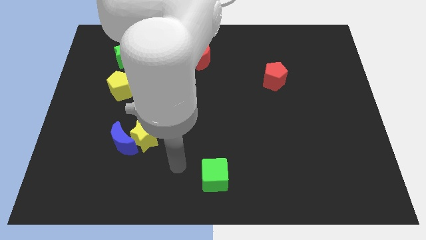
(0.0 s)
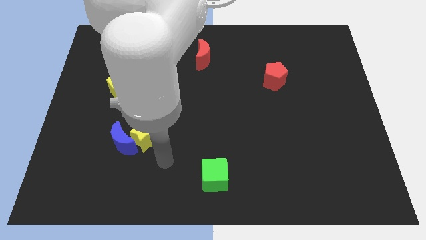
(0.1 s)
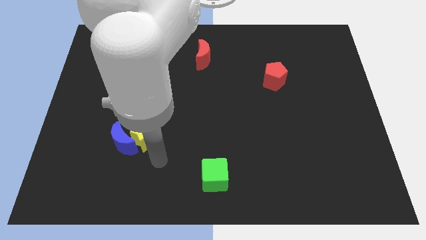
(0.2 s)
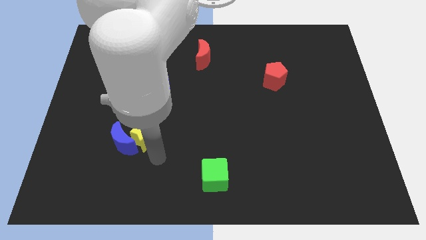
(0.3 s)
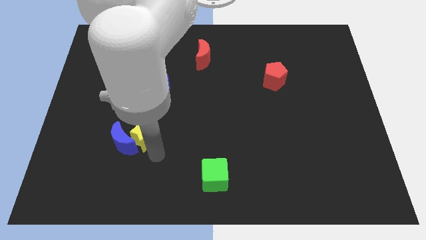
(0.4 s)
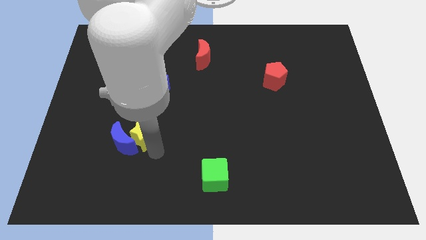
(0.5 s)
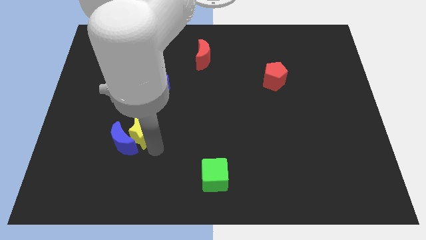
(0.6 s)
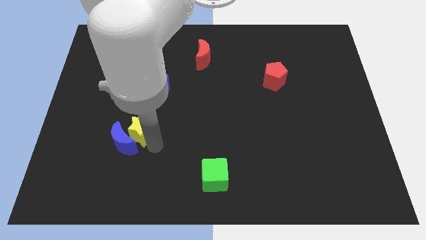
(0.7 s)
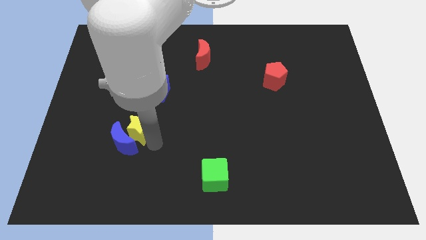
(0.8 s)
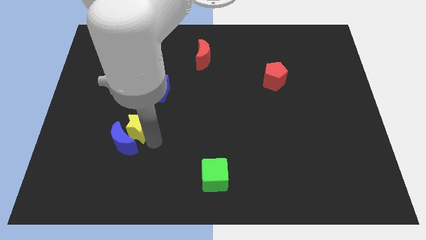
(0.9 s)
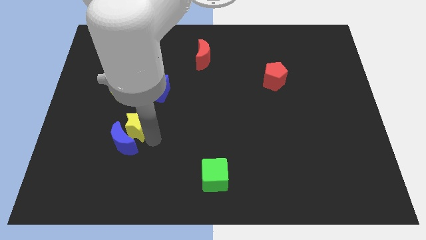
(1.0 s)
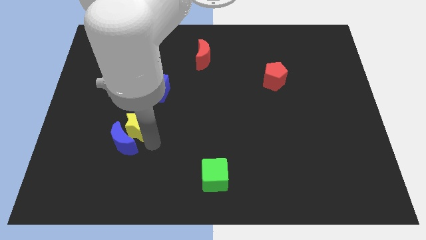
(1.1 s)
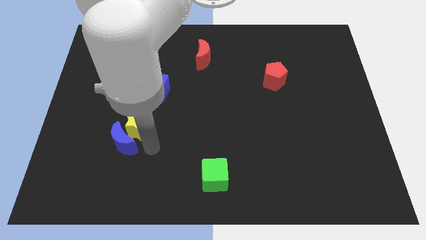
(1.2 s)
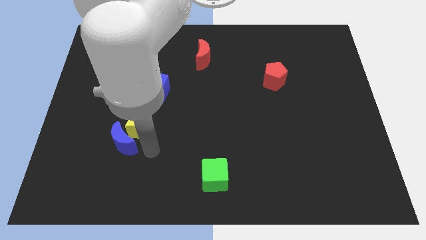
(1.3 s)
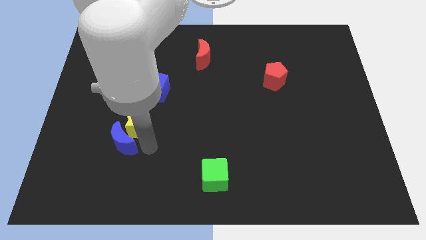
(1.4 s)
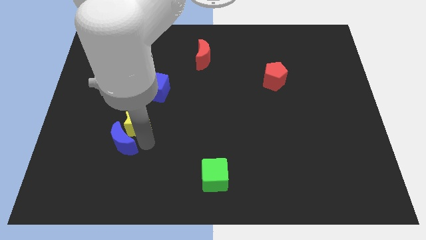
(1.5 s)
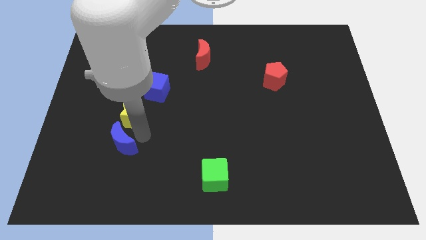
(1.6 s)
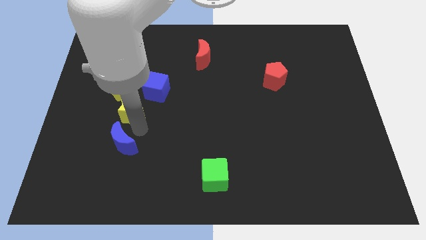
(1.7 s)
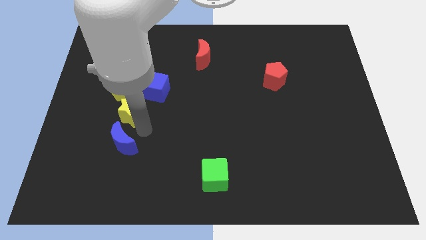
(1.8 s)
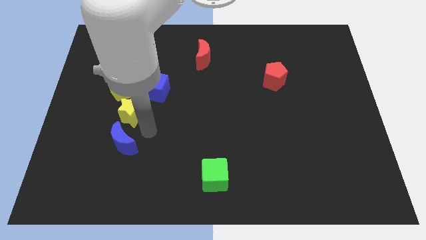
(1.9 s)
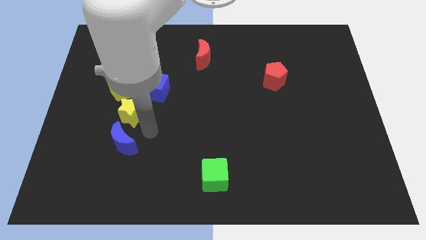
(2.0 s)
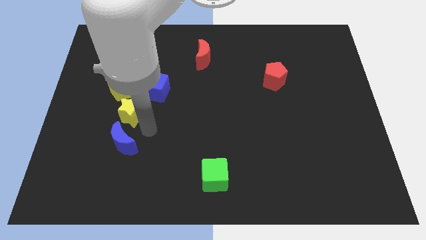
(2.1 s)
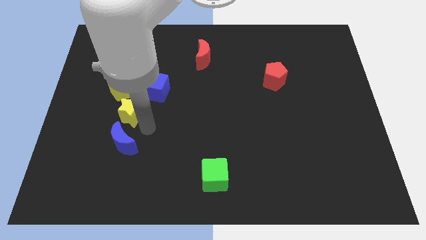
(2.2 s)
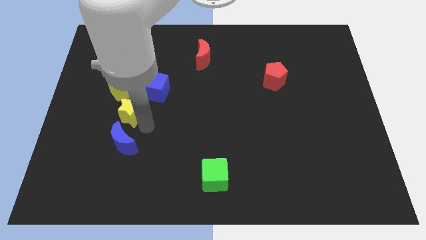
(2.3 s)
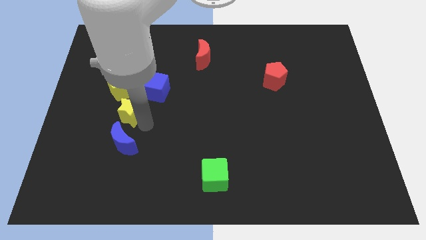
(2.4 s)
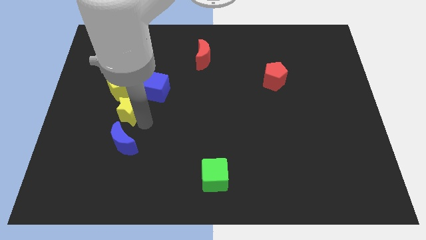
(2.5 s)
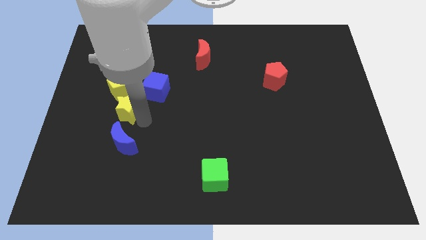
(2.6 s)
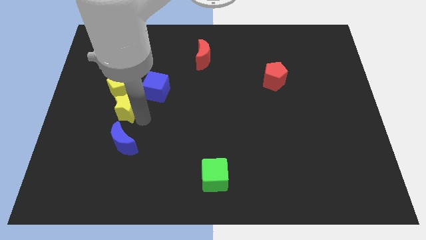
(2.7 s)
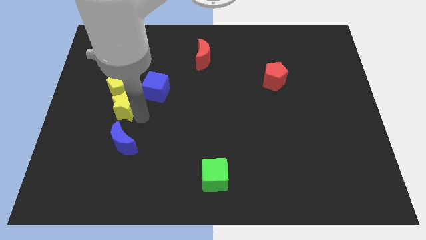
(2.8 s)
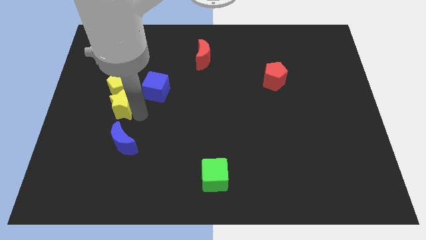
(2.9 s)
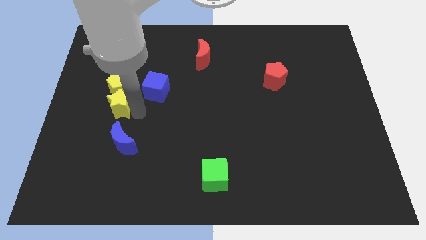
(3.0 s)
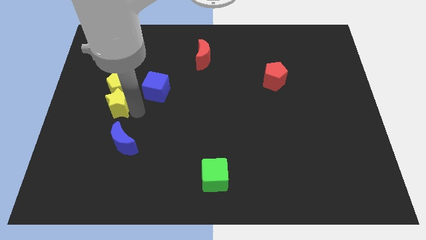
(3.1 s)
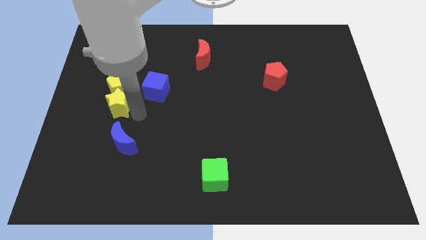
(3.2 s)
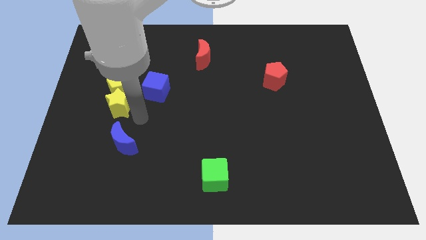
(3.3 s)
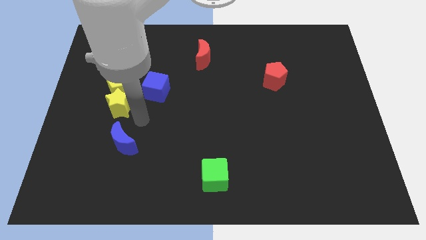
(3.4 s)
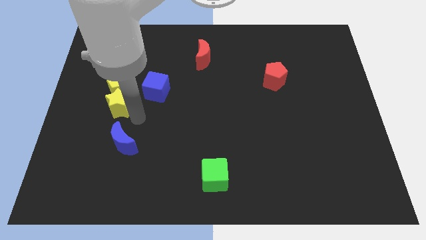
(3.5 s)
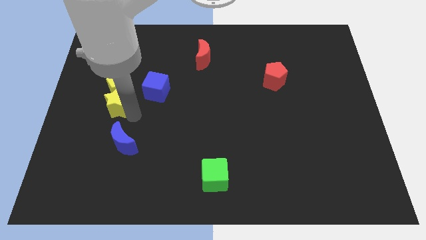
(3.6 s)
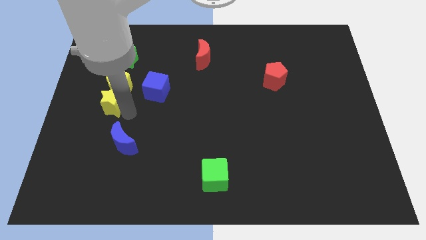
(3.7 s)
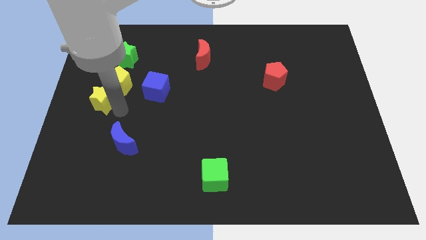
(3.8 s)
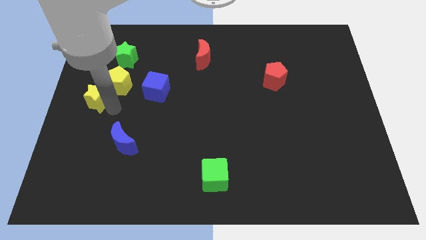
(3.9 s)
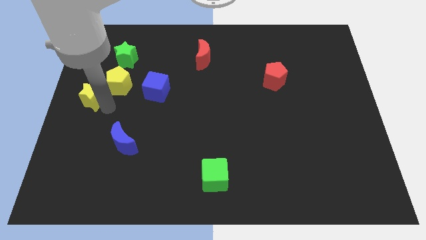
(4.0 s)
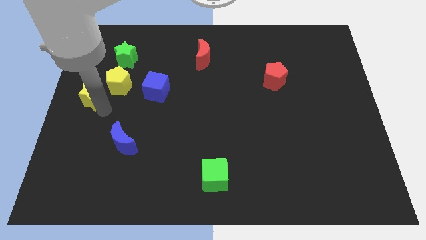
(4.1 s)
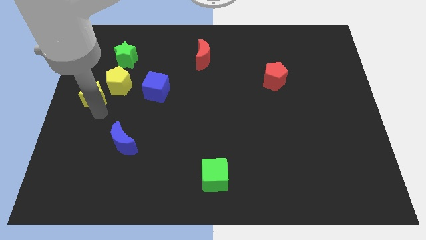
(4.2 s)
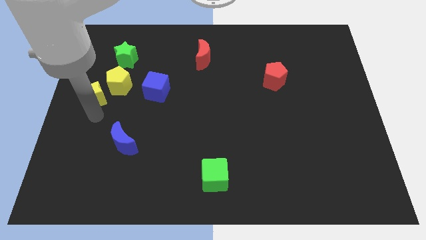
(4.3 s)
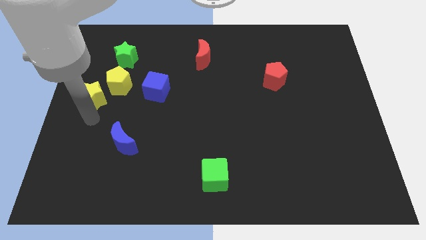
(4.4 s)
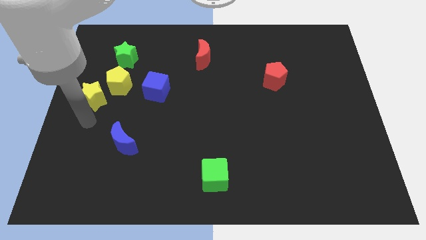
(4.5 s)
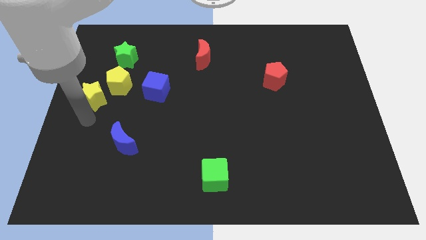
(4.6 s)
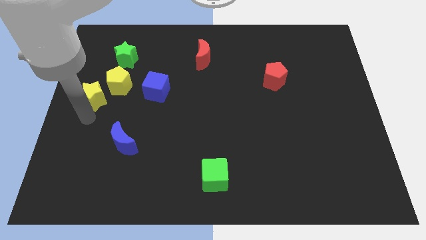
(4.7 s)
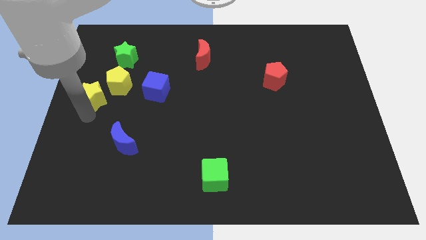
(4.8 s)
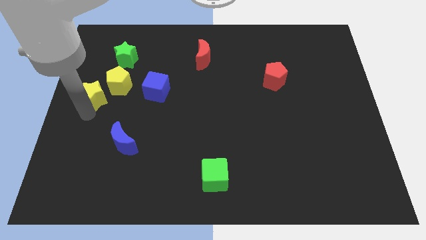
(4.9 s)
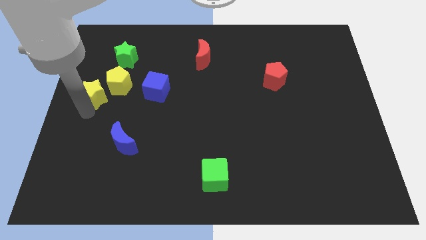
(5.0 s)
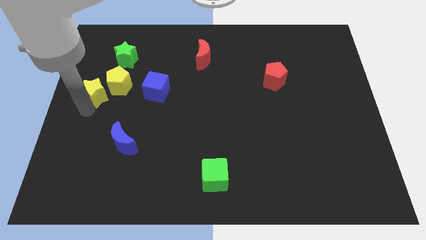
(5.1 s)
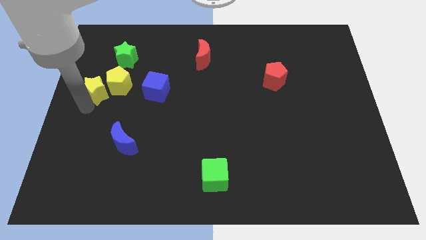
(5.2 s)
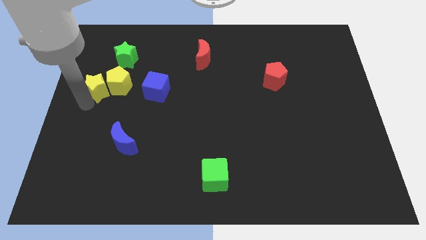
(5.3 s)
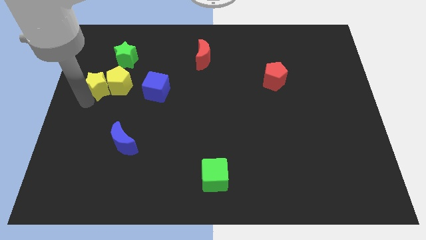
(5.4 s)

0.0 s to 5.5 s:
slide the yellow star diagonally up and to the left of the yellow pentagon
